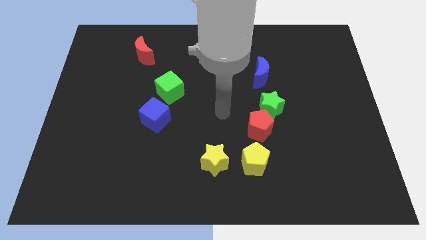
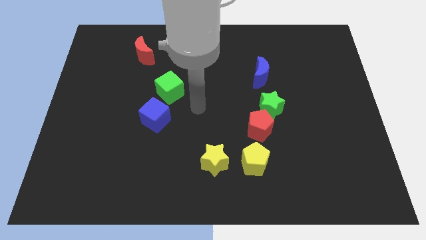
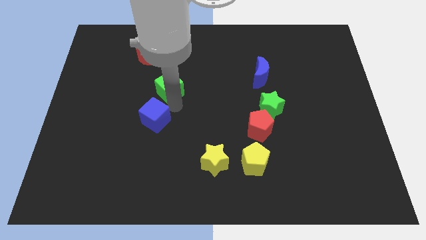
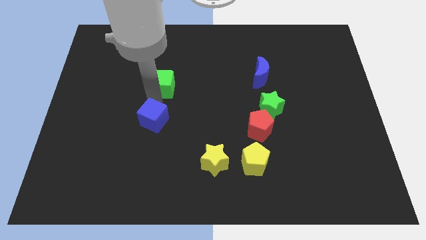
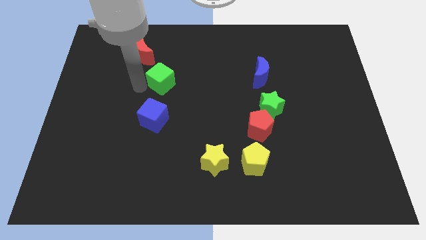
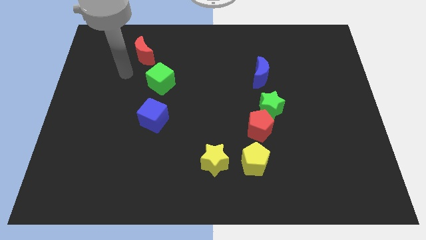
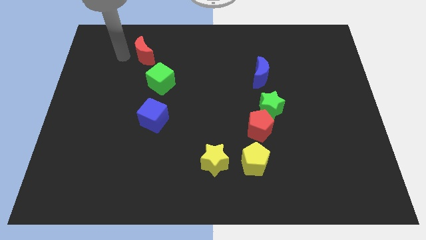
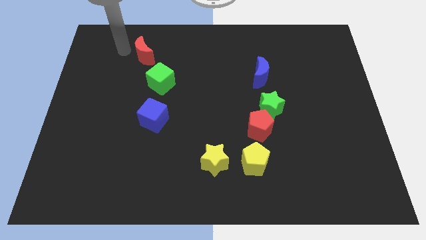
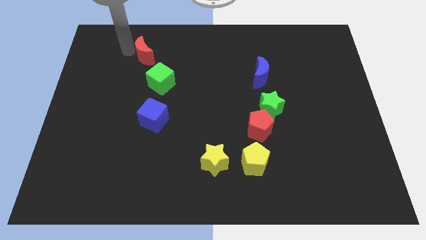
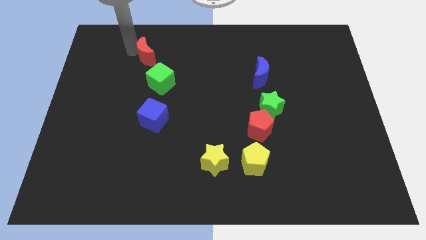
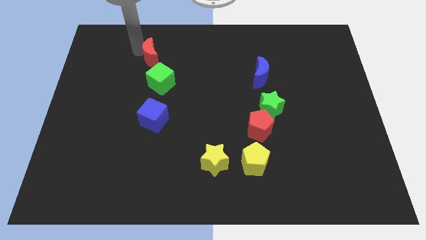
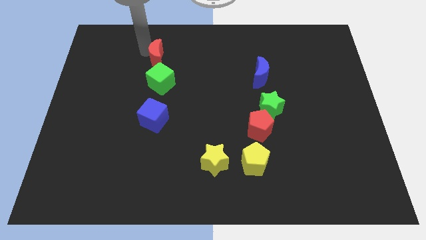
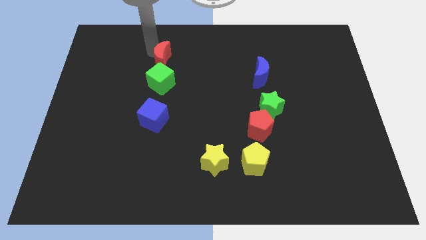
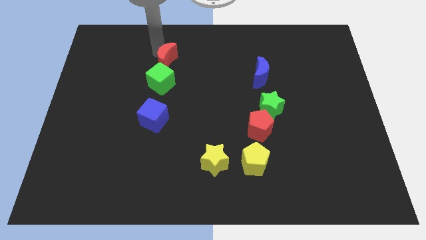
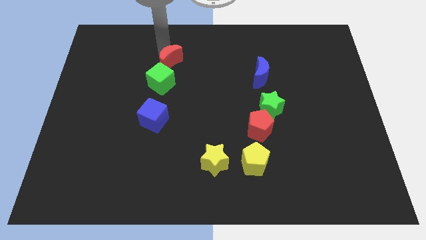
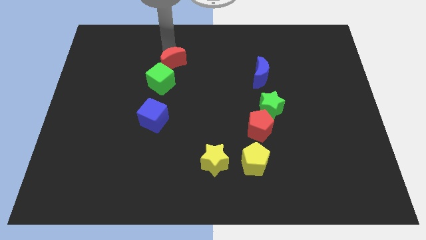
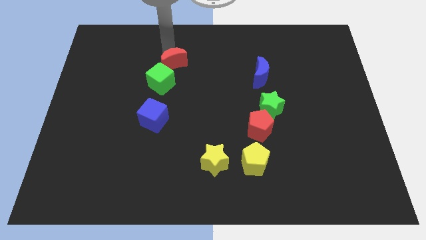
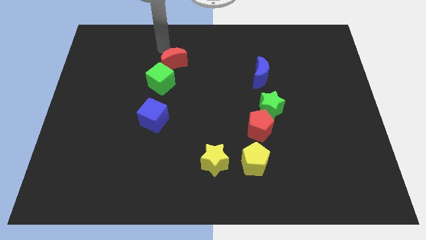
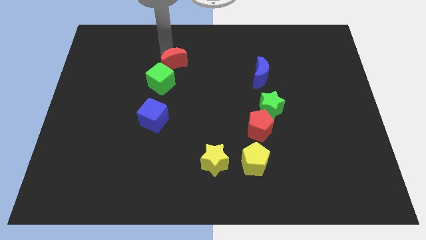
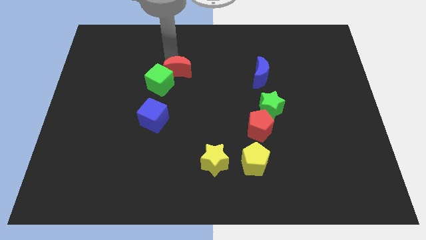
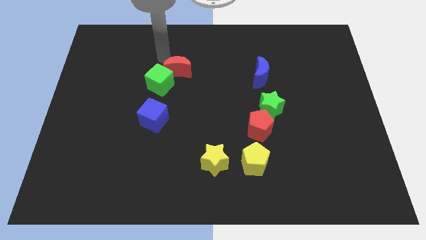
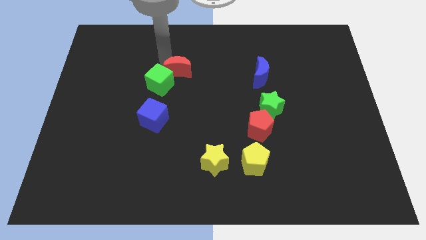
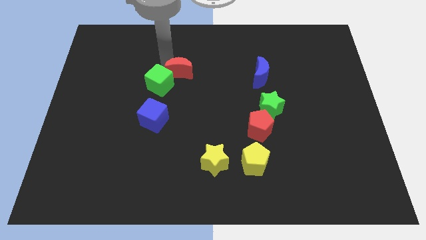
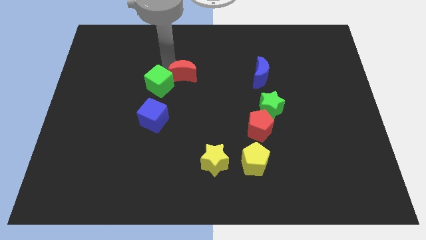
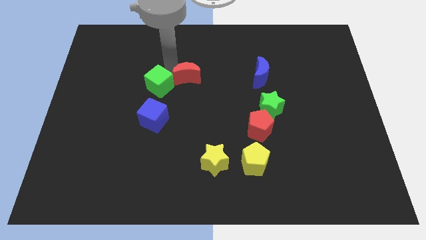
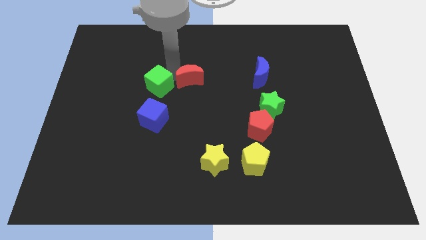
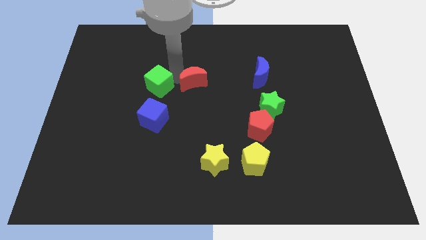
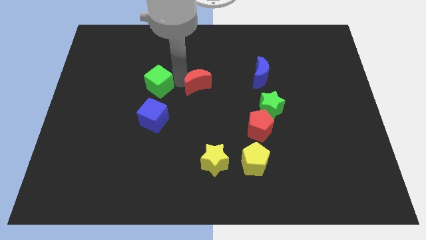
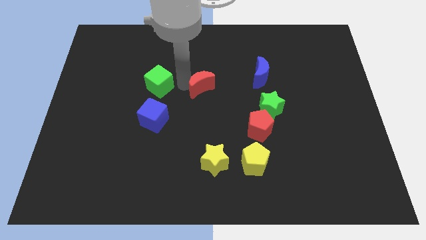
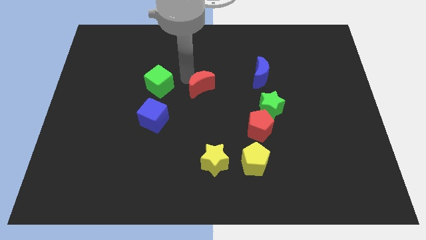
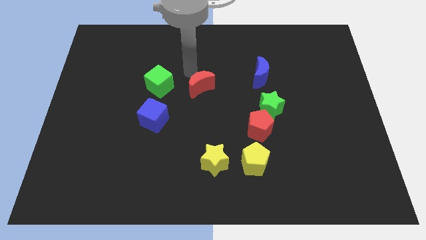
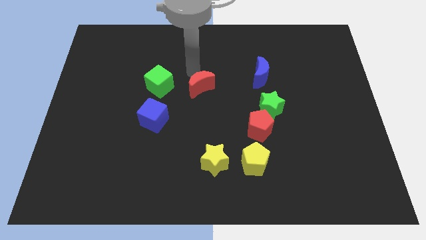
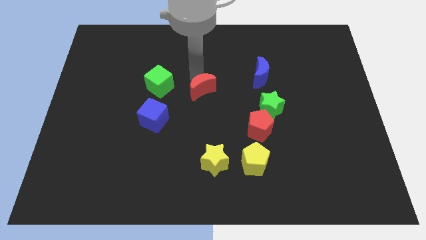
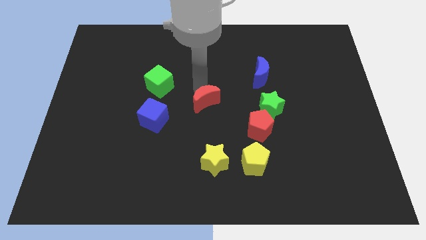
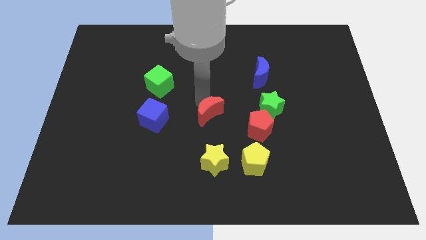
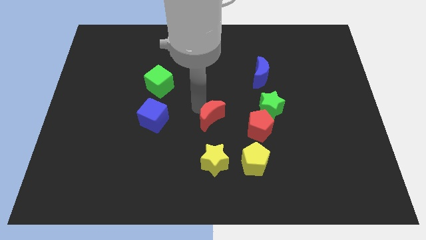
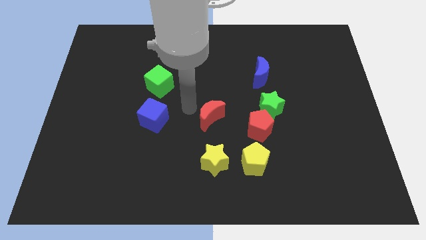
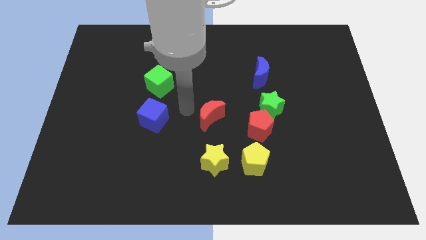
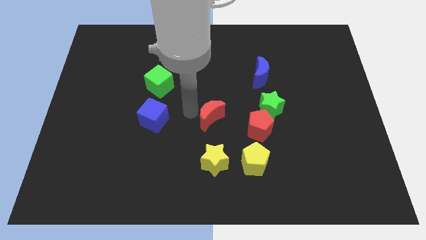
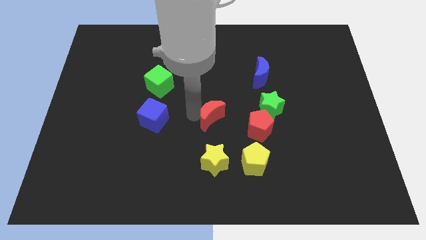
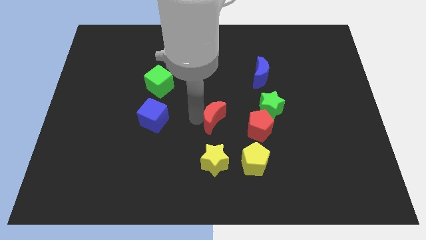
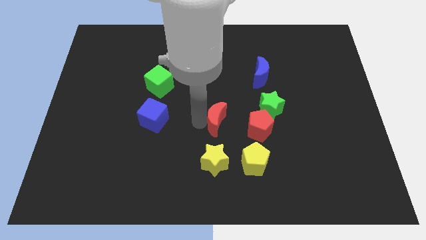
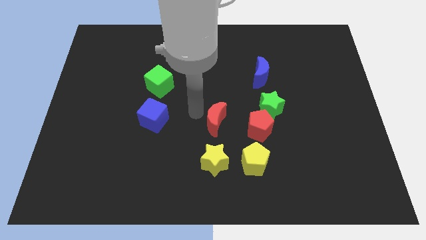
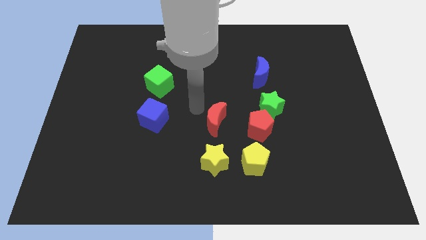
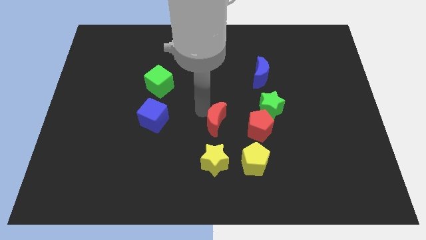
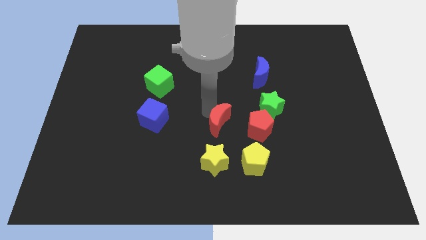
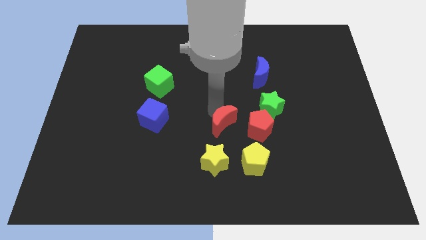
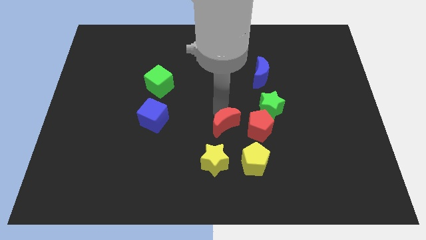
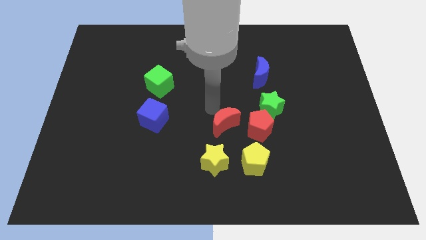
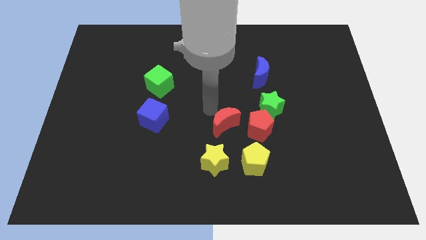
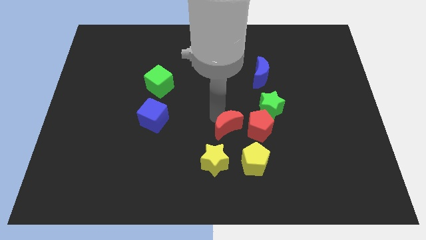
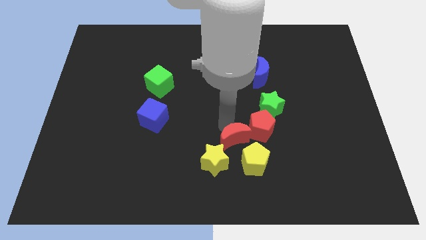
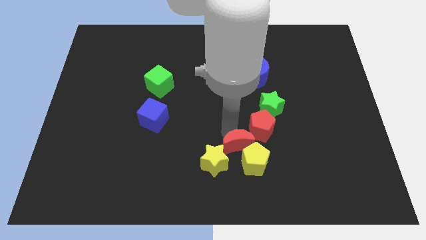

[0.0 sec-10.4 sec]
put the red moon to the yellow pentagon

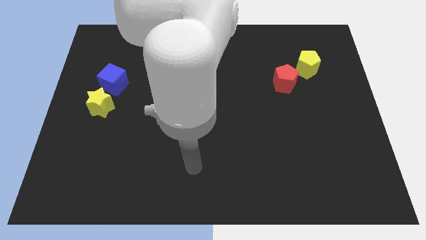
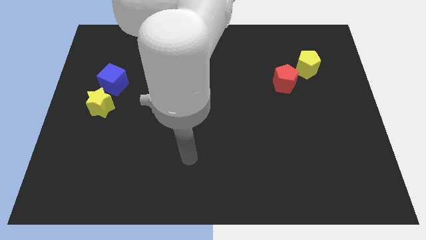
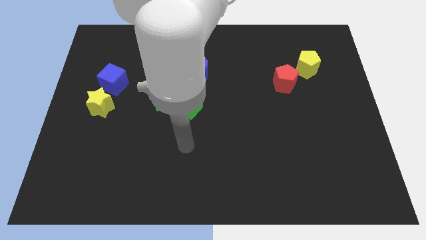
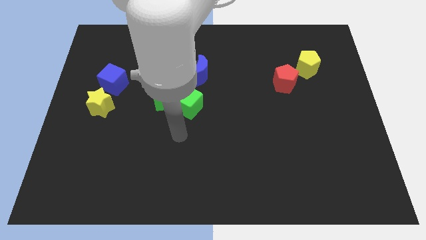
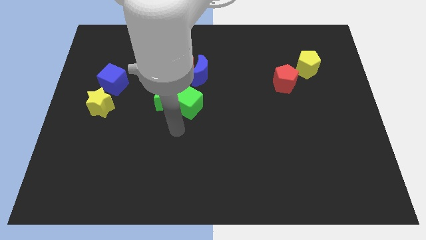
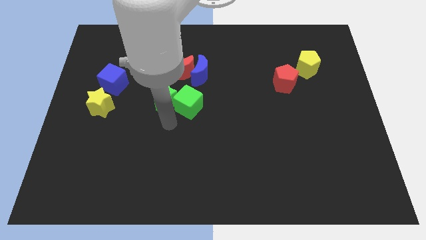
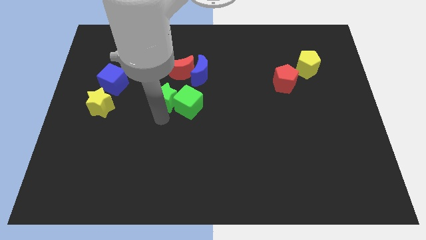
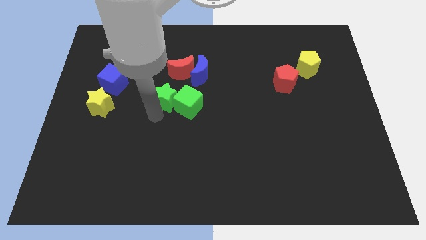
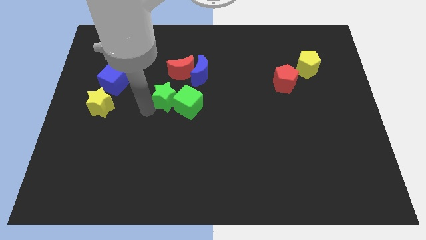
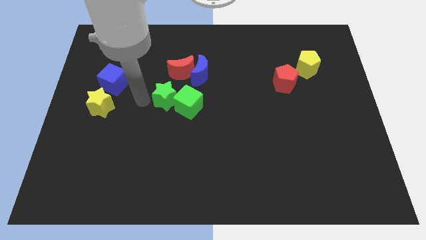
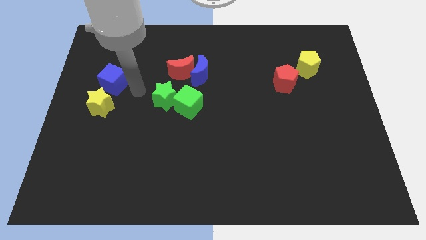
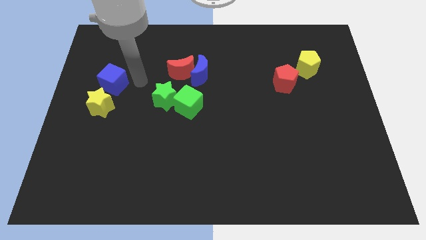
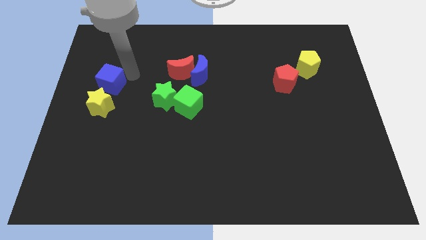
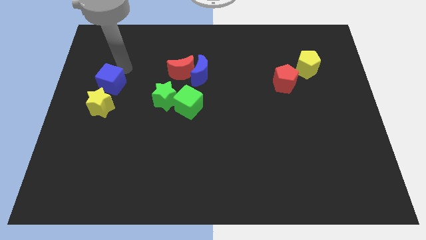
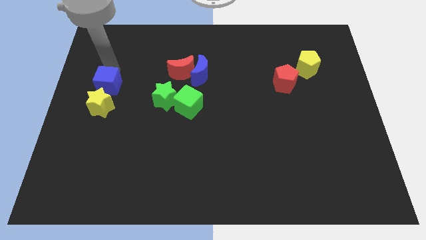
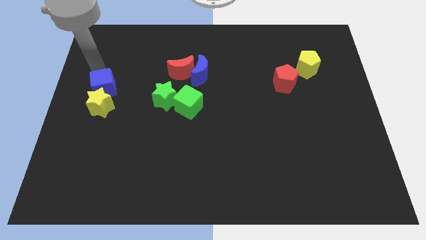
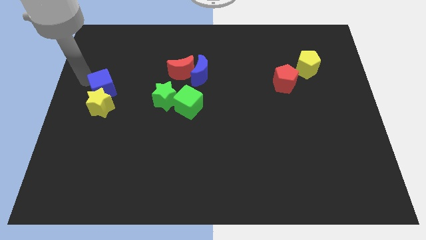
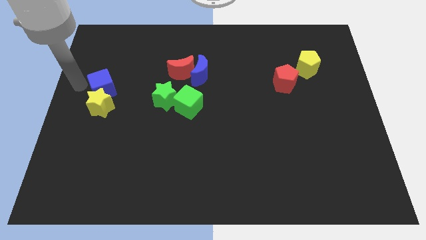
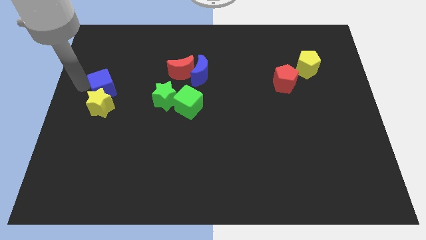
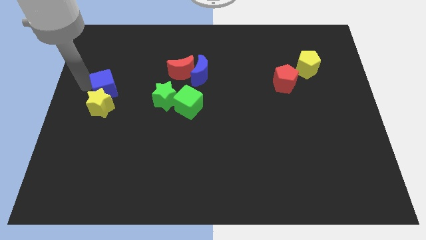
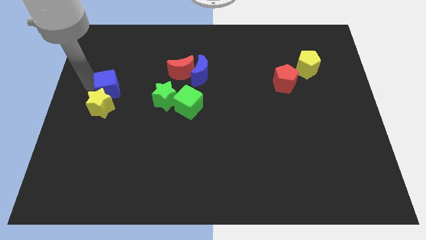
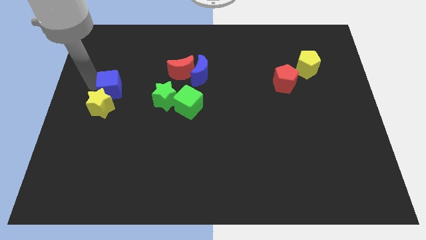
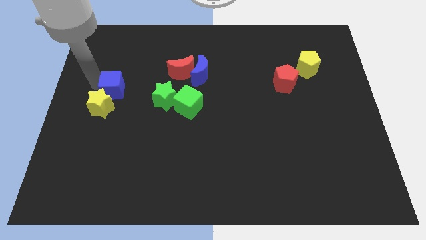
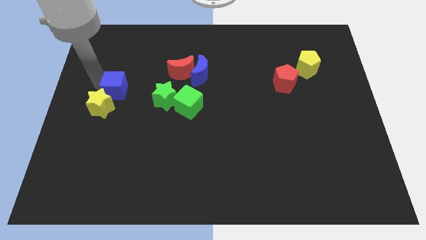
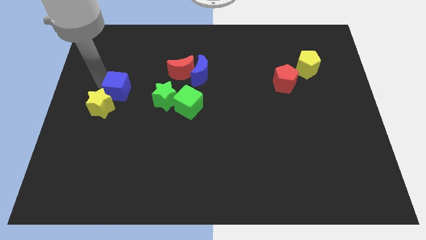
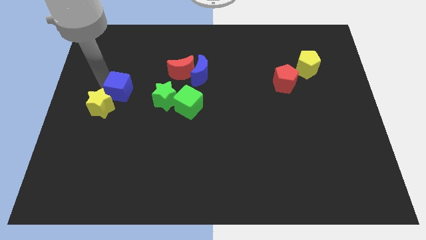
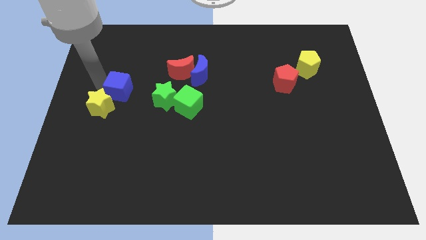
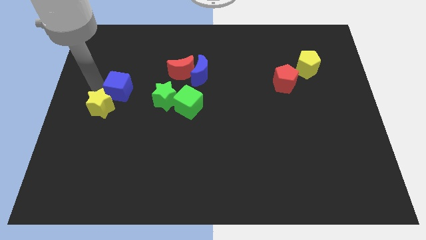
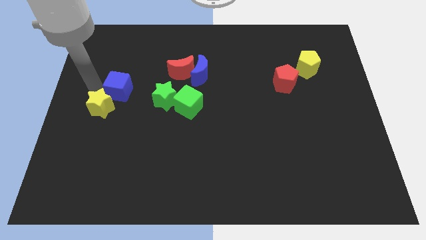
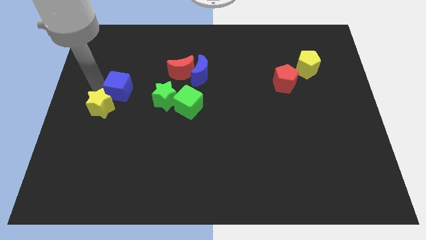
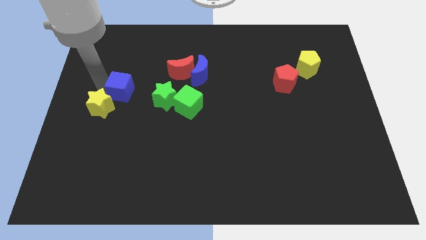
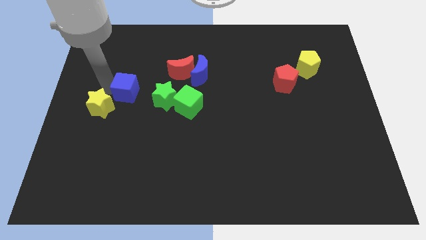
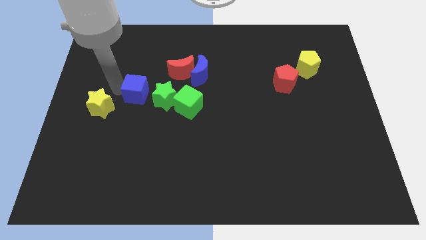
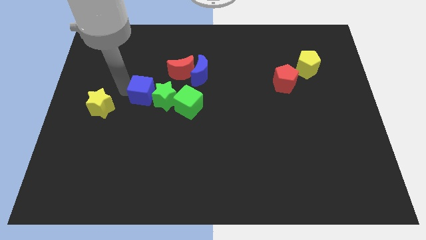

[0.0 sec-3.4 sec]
slide the blue cube next to the green star
